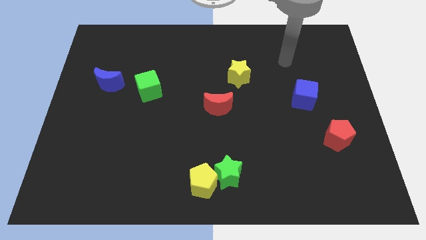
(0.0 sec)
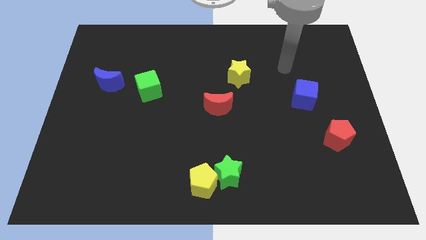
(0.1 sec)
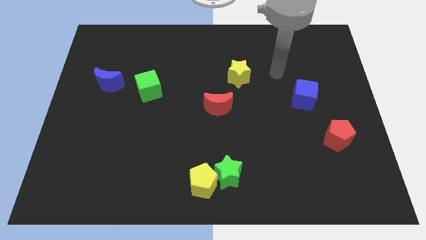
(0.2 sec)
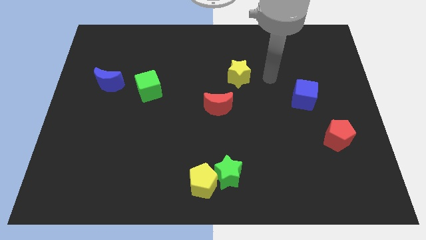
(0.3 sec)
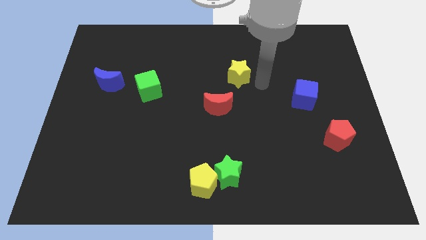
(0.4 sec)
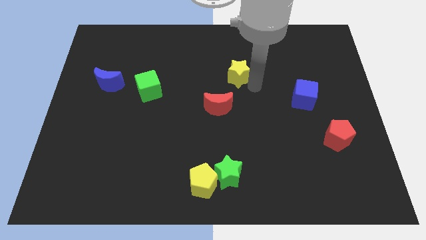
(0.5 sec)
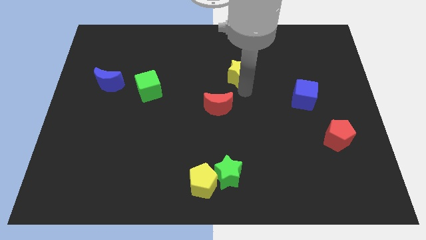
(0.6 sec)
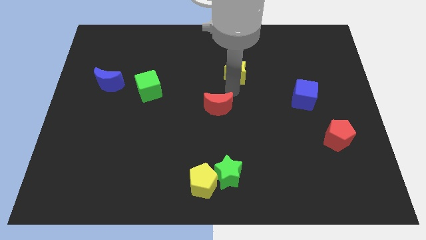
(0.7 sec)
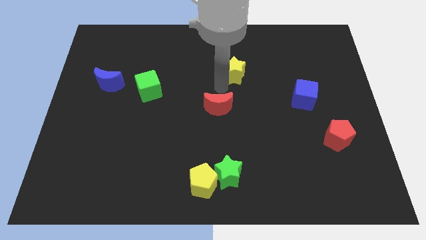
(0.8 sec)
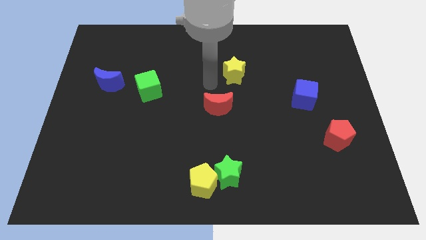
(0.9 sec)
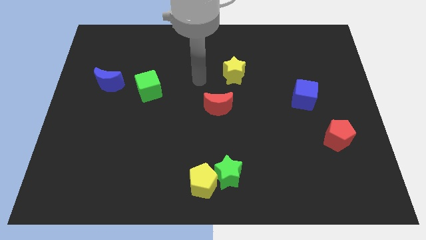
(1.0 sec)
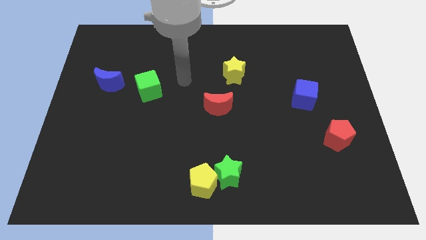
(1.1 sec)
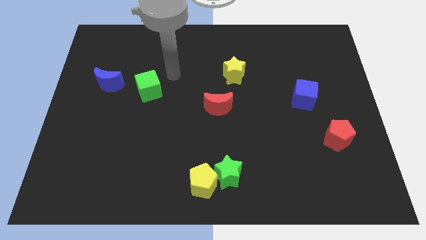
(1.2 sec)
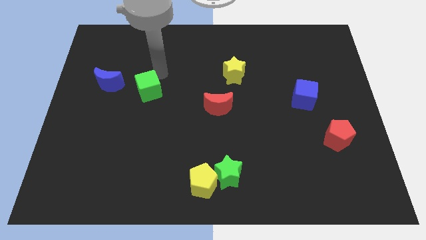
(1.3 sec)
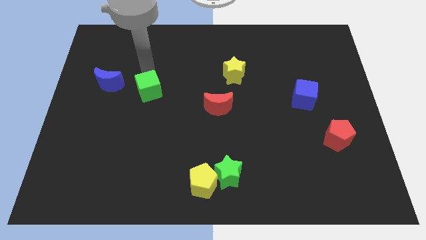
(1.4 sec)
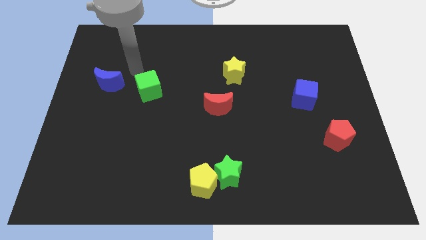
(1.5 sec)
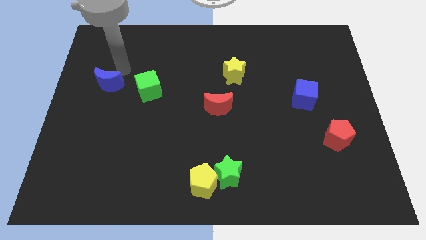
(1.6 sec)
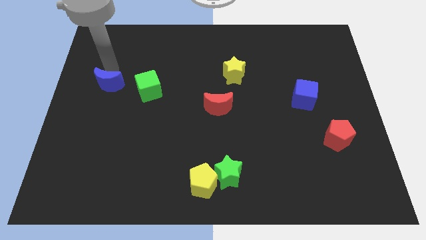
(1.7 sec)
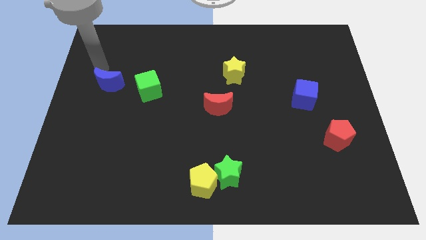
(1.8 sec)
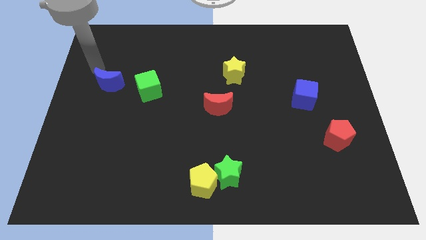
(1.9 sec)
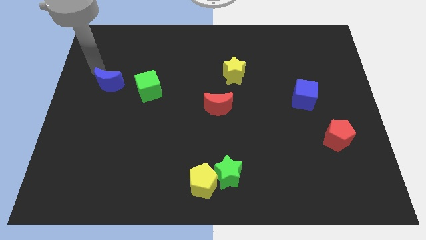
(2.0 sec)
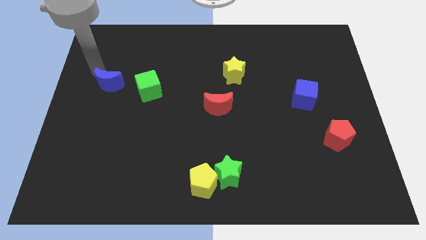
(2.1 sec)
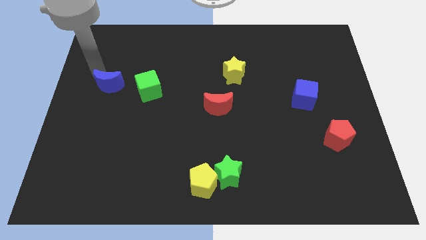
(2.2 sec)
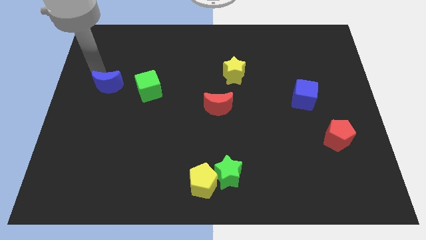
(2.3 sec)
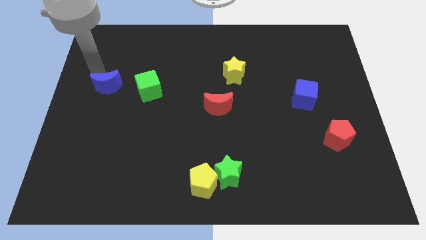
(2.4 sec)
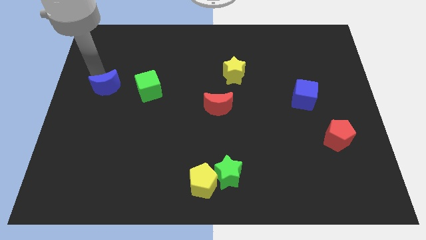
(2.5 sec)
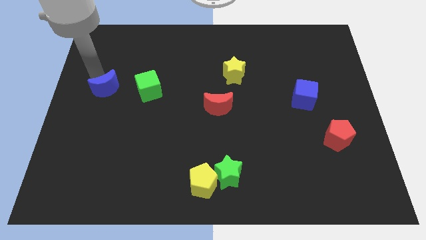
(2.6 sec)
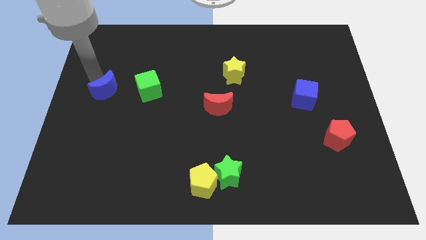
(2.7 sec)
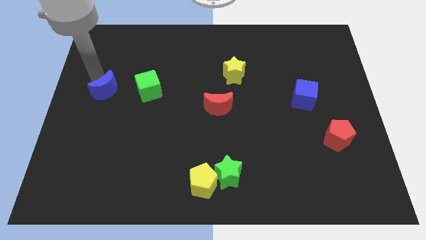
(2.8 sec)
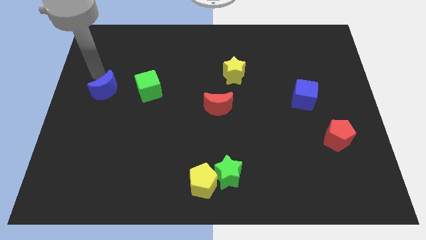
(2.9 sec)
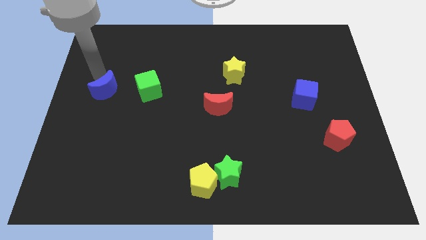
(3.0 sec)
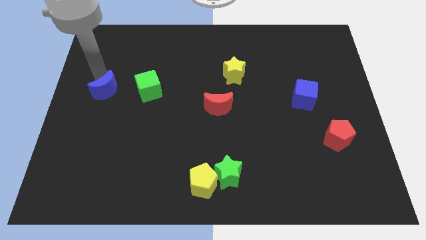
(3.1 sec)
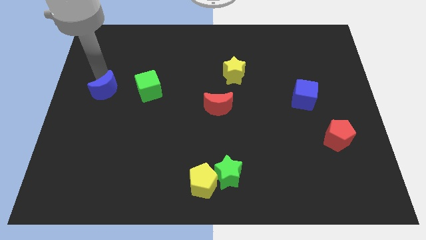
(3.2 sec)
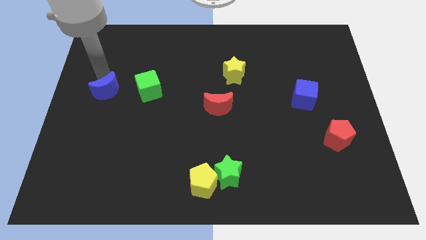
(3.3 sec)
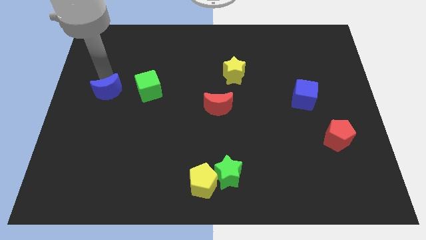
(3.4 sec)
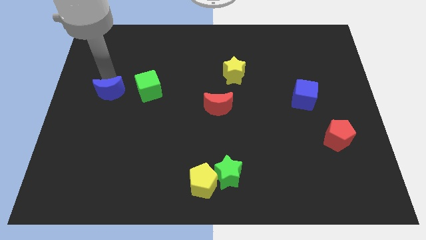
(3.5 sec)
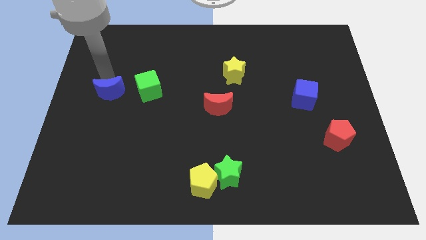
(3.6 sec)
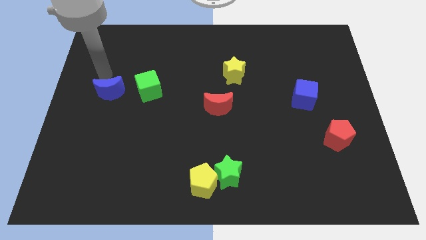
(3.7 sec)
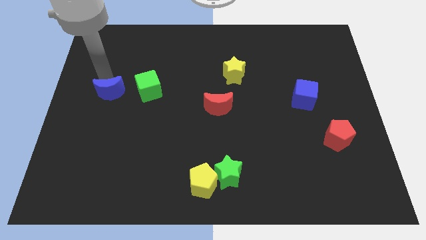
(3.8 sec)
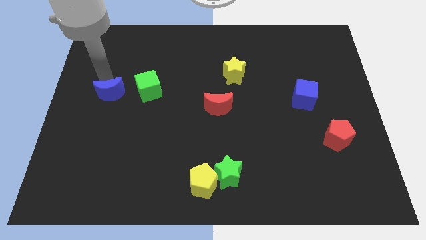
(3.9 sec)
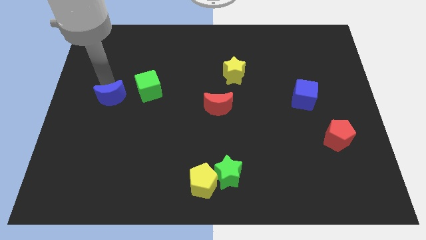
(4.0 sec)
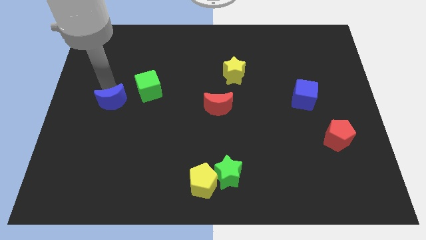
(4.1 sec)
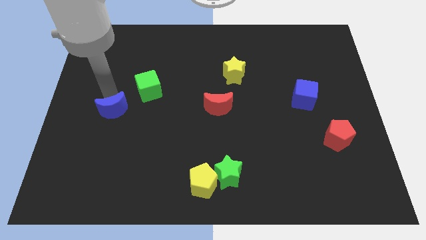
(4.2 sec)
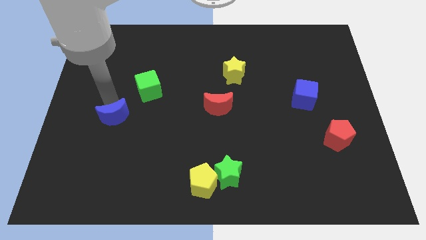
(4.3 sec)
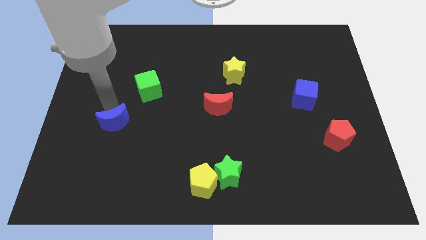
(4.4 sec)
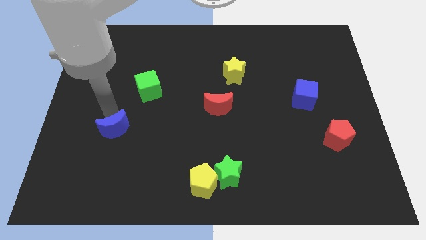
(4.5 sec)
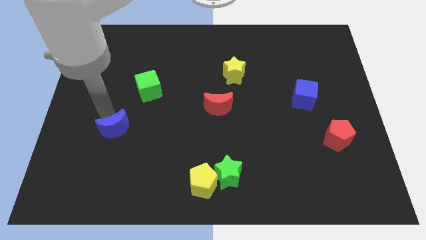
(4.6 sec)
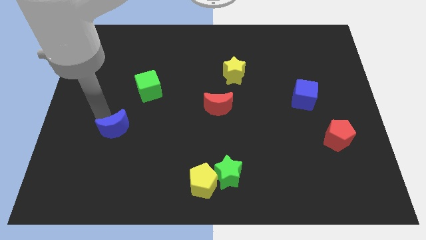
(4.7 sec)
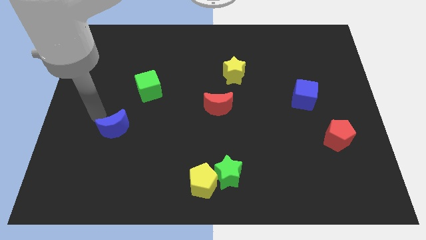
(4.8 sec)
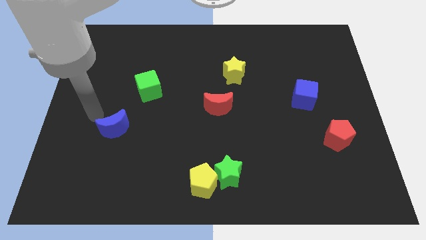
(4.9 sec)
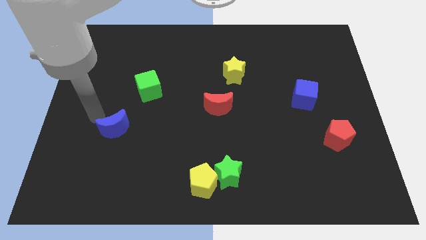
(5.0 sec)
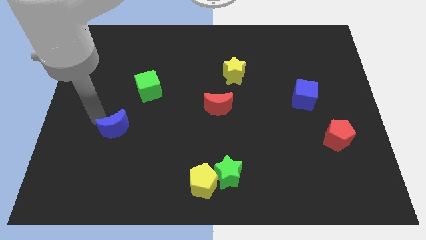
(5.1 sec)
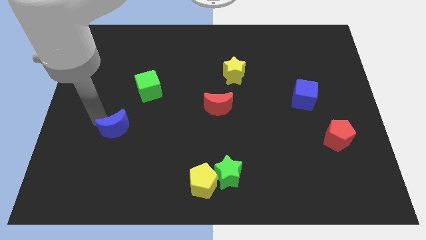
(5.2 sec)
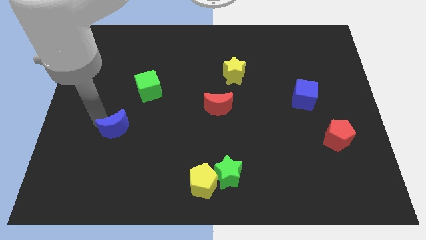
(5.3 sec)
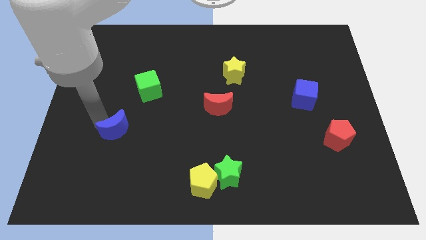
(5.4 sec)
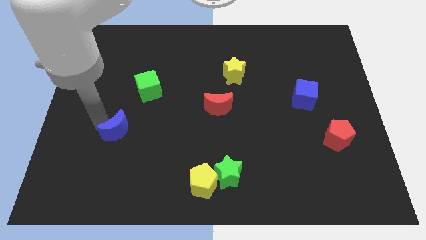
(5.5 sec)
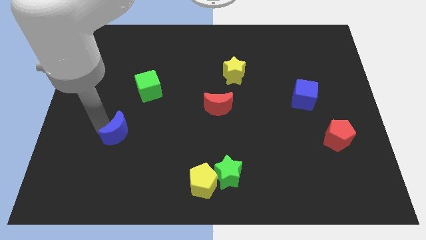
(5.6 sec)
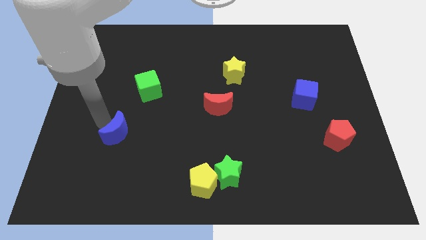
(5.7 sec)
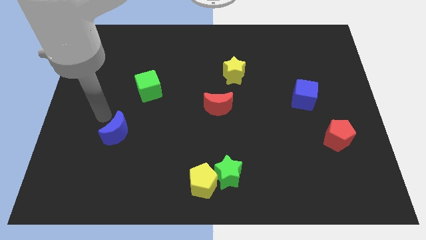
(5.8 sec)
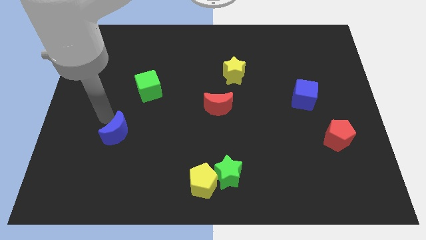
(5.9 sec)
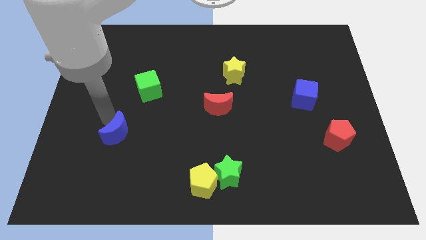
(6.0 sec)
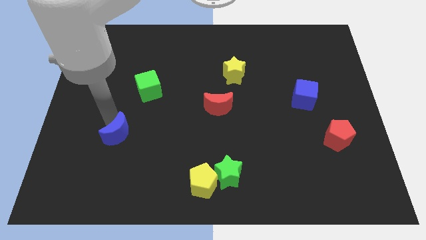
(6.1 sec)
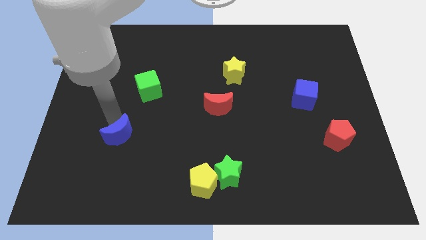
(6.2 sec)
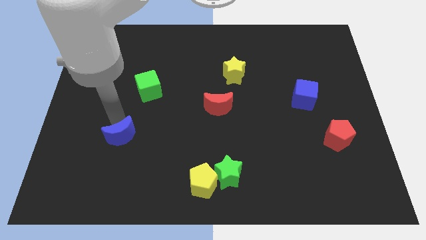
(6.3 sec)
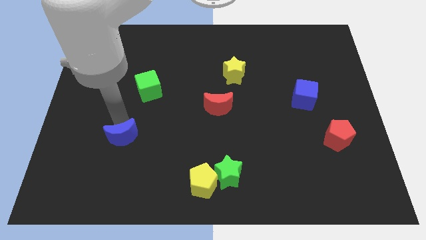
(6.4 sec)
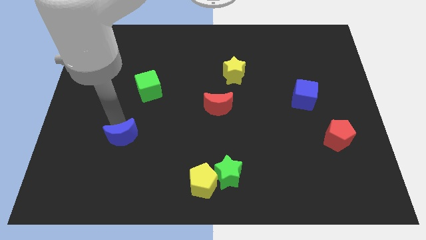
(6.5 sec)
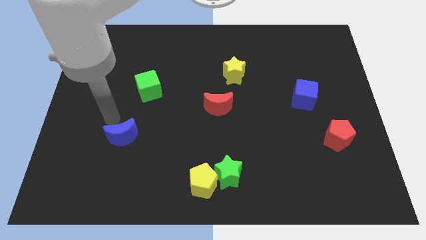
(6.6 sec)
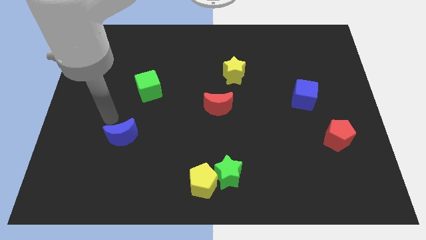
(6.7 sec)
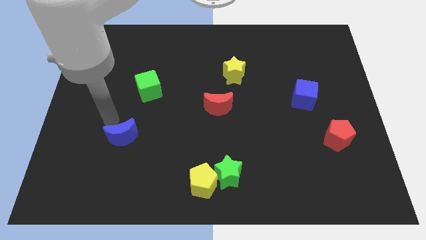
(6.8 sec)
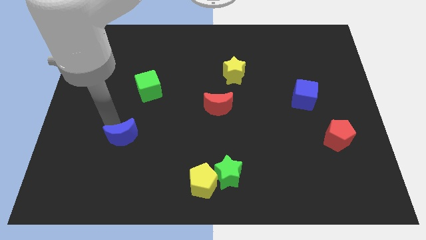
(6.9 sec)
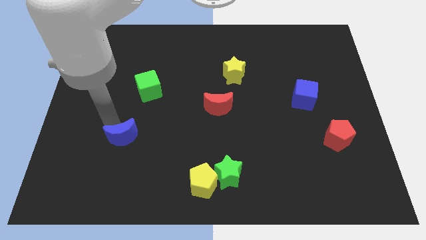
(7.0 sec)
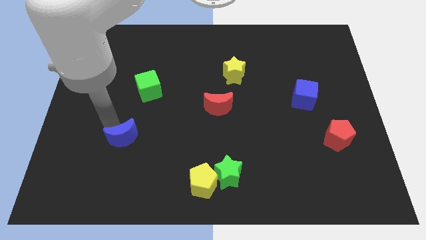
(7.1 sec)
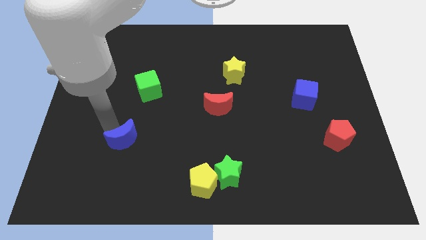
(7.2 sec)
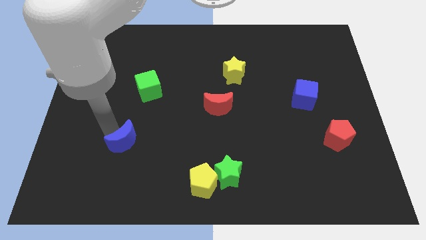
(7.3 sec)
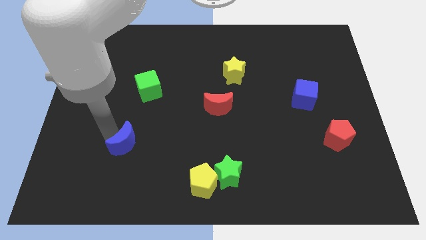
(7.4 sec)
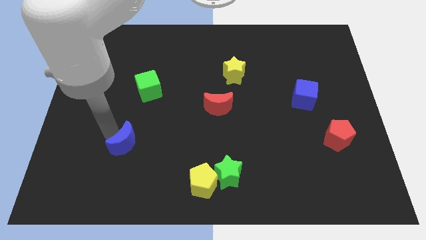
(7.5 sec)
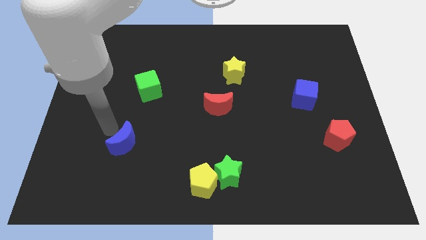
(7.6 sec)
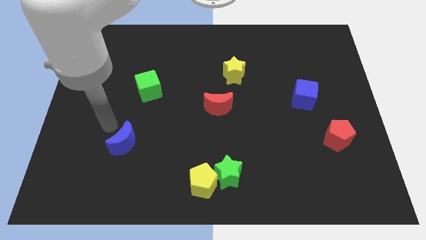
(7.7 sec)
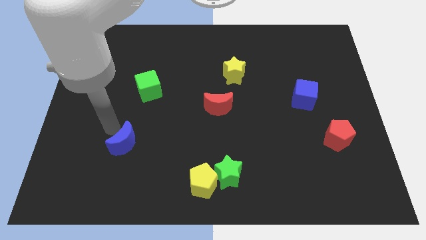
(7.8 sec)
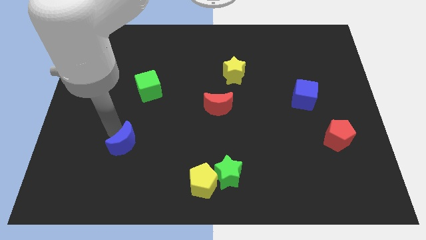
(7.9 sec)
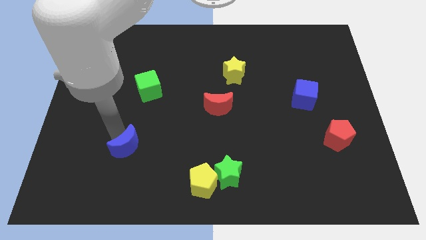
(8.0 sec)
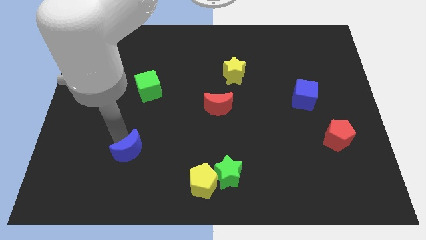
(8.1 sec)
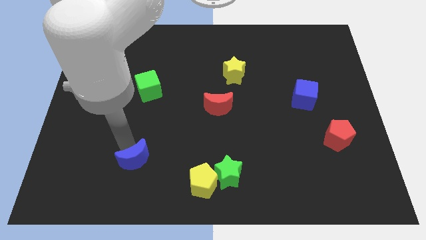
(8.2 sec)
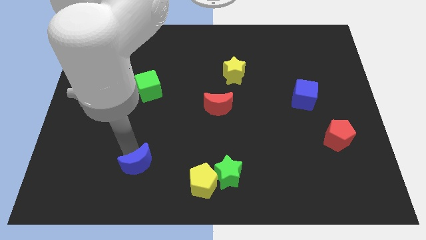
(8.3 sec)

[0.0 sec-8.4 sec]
slide the blue moon to the left side of the yellow pentagon
